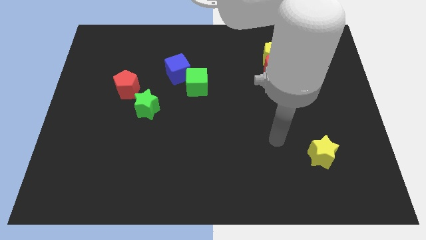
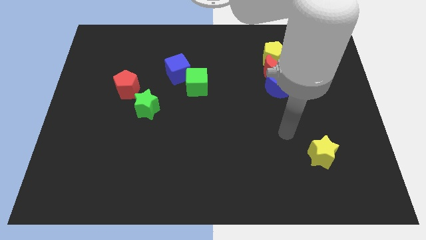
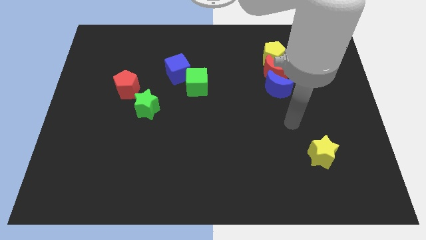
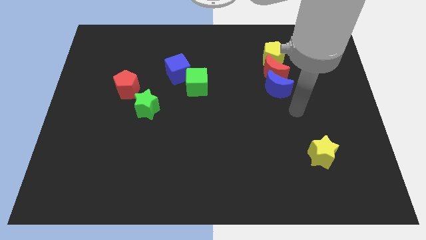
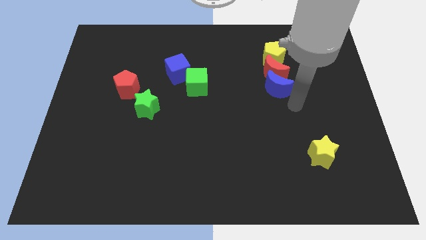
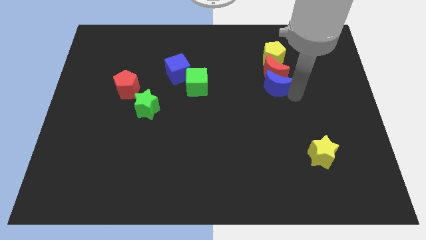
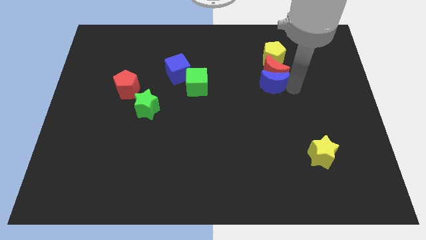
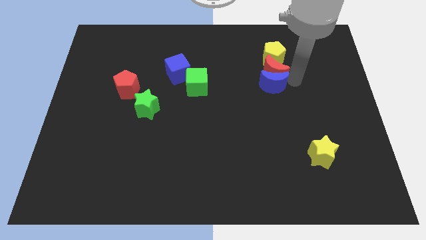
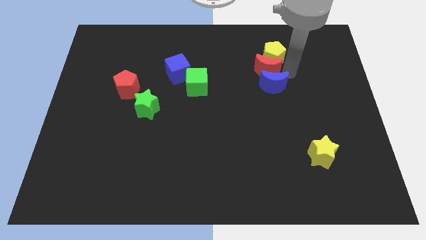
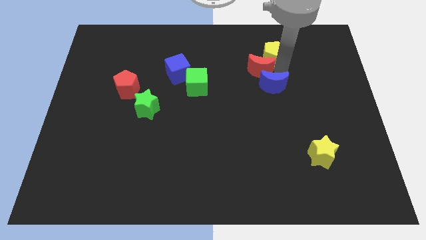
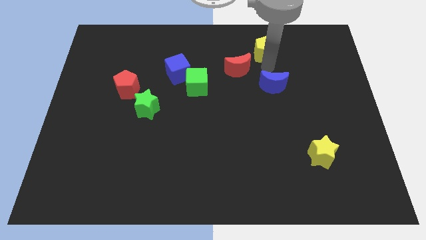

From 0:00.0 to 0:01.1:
pull the blue moon apart from the red moon

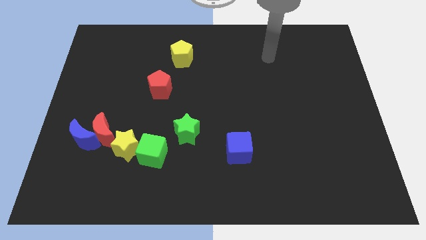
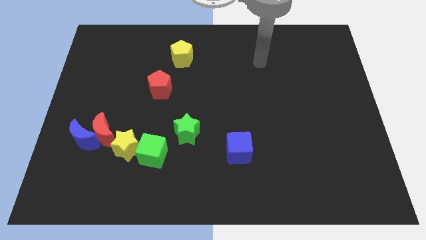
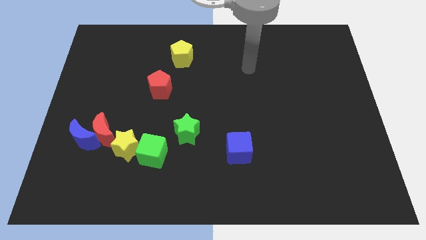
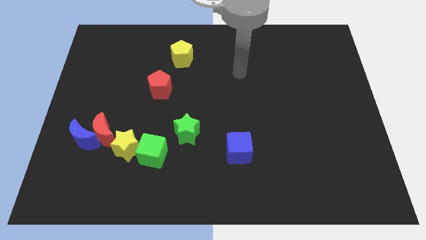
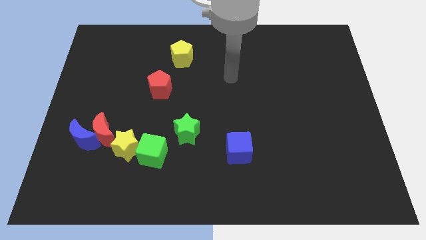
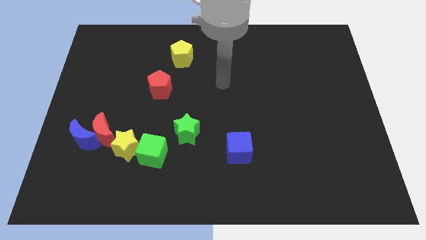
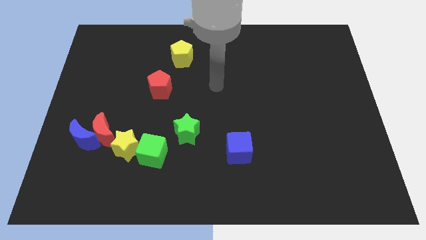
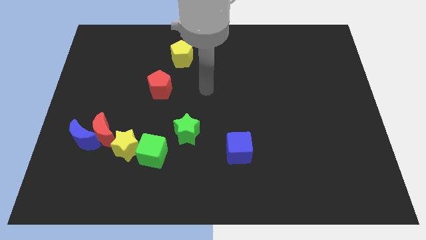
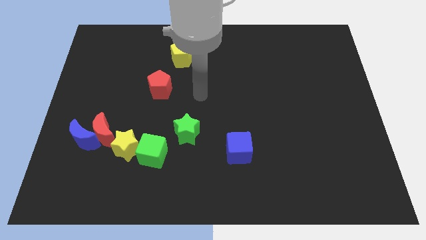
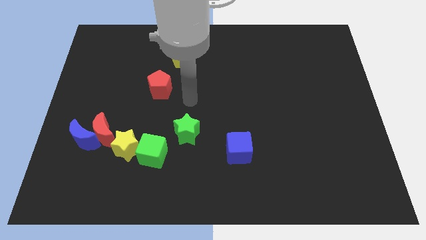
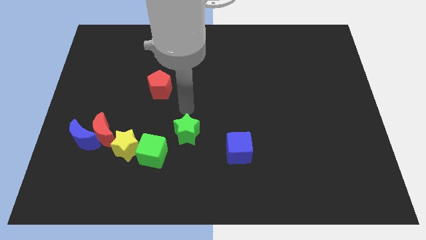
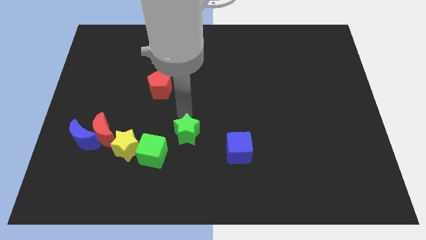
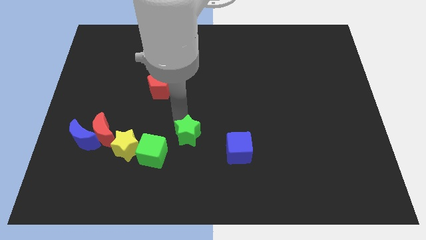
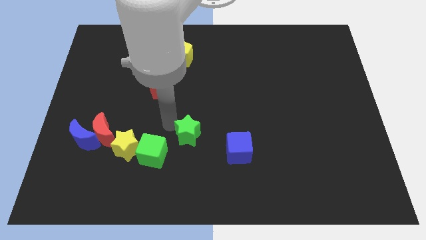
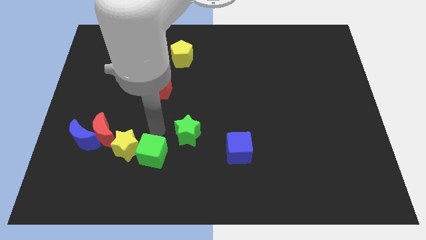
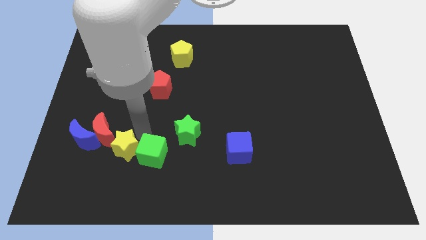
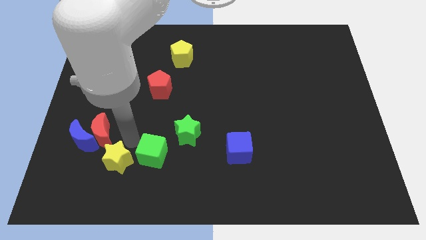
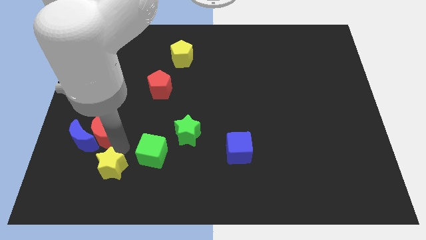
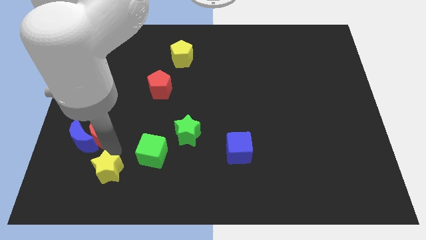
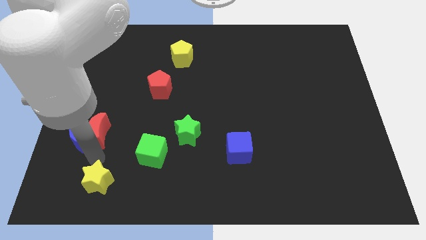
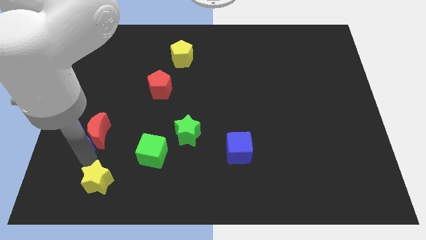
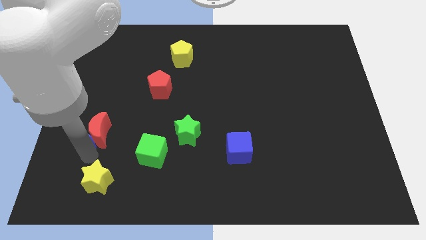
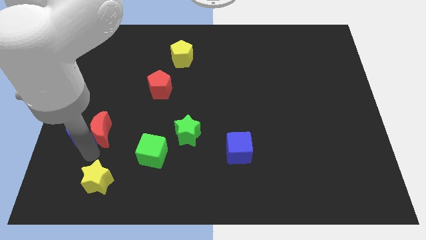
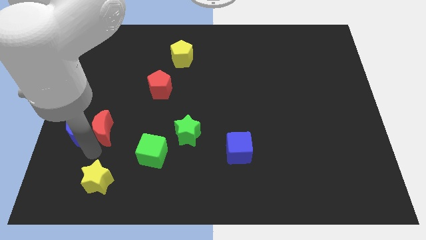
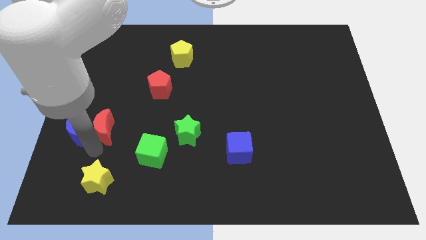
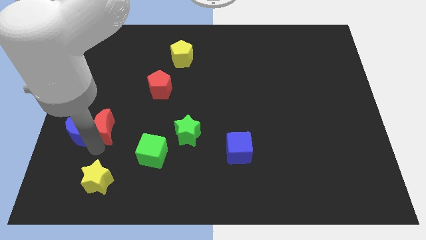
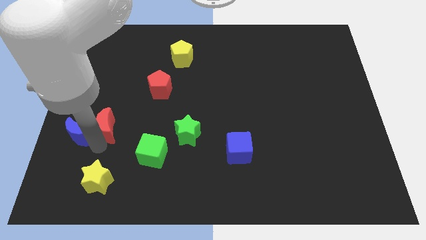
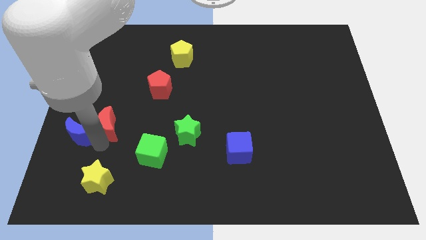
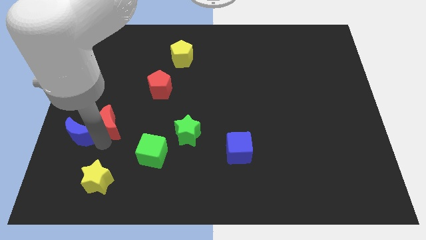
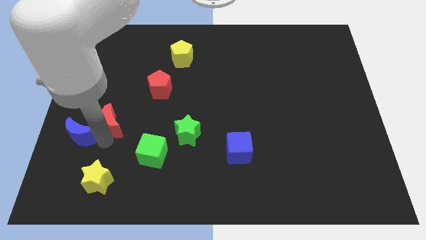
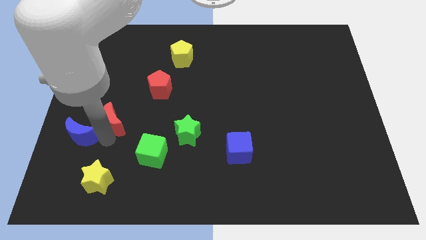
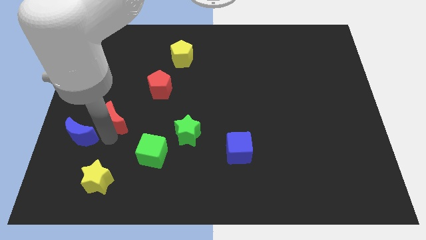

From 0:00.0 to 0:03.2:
pull the red moon apart from the blue moon and yellow star

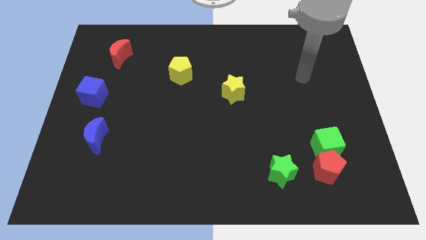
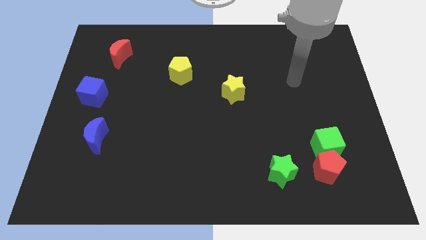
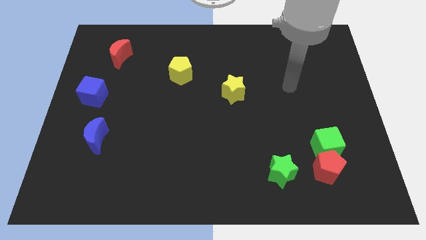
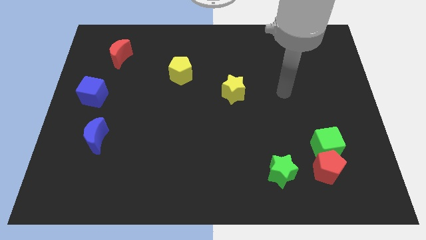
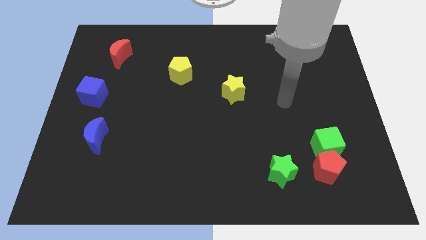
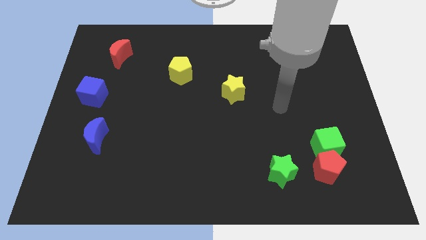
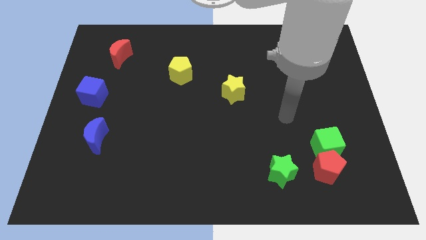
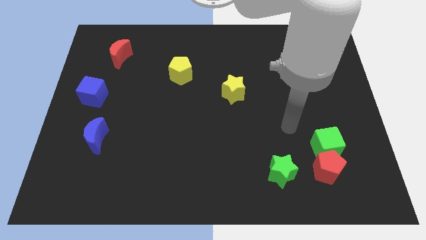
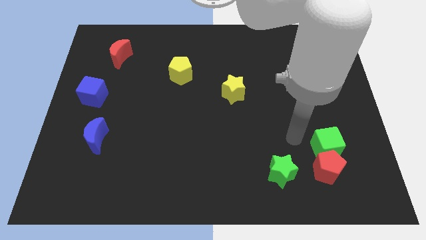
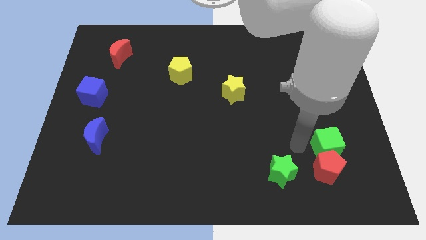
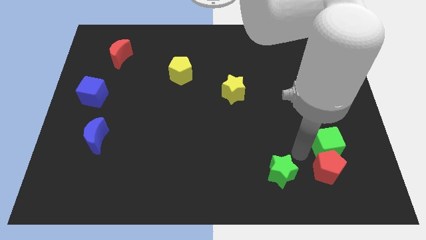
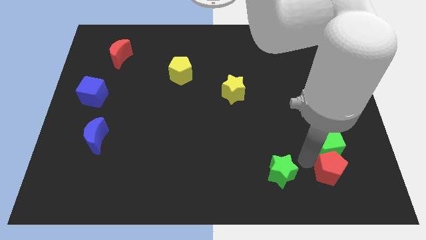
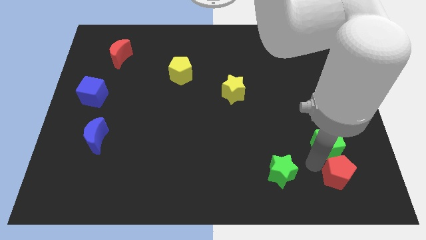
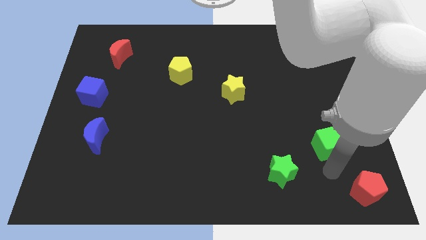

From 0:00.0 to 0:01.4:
pull the green cube apart from the red pentagon

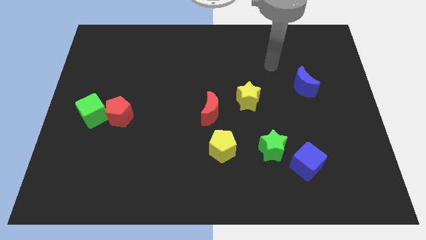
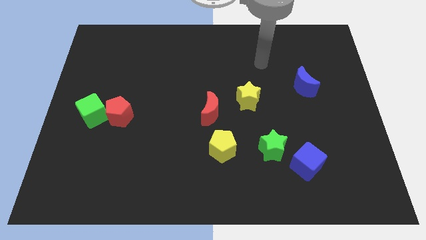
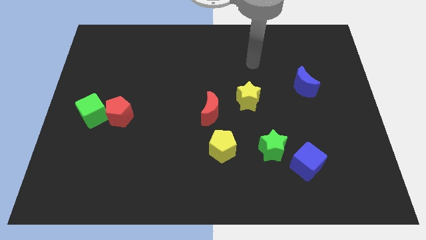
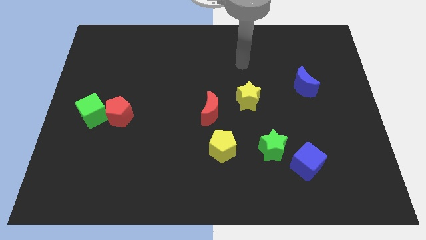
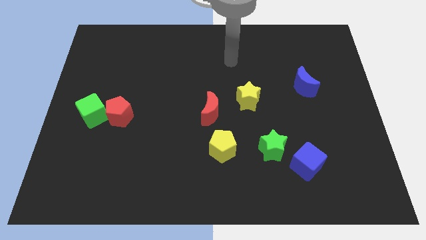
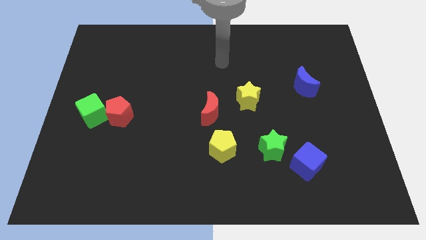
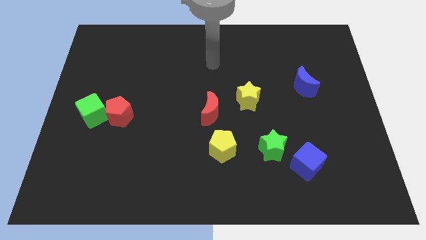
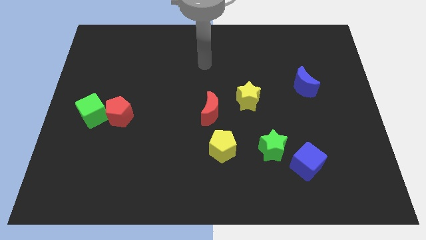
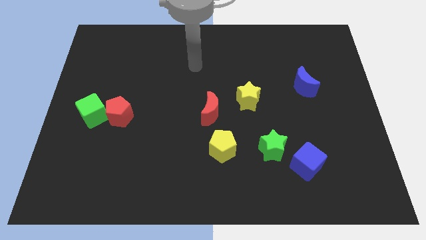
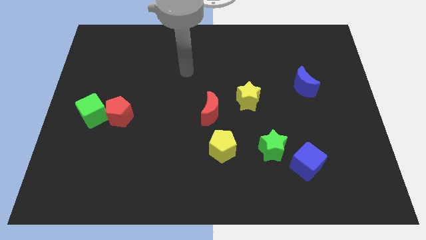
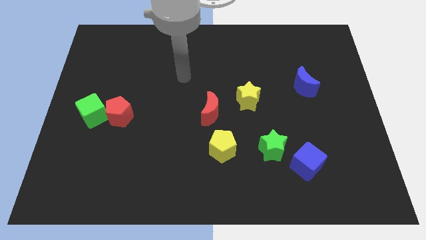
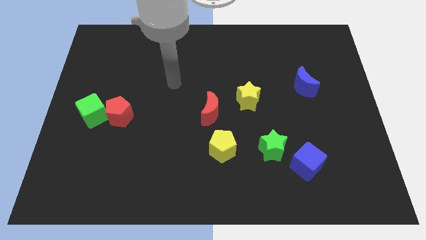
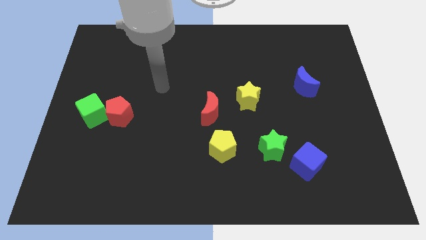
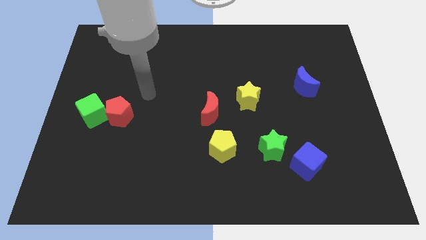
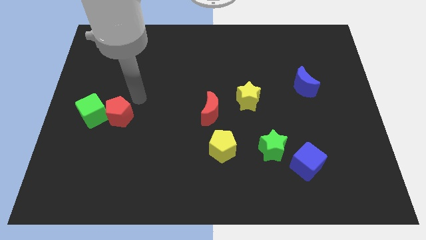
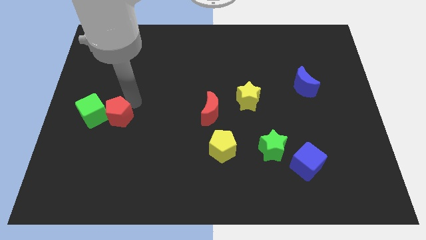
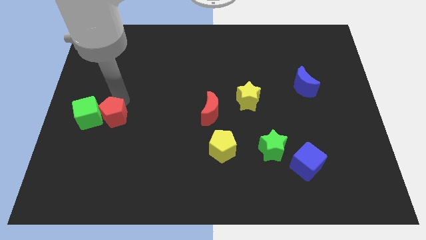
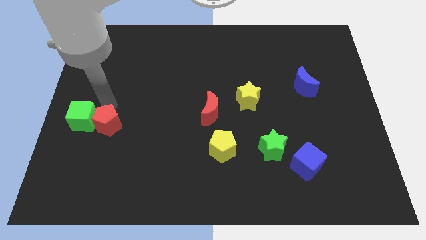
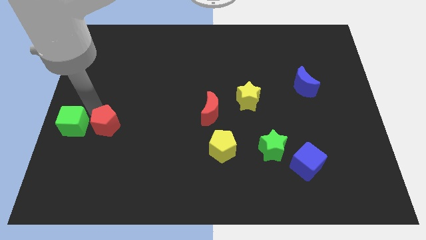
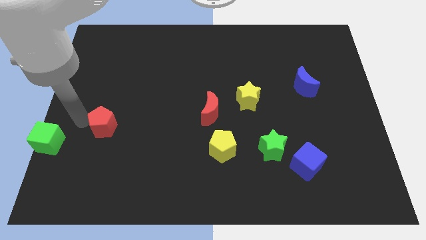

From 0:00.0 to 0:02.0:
separate the red pentagon from the green cube

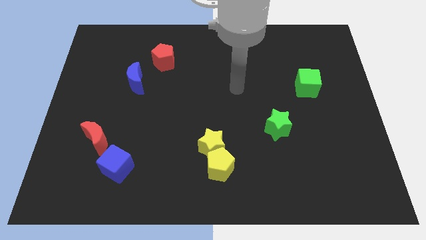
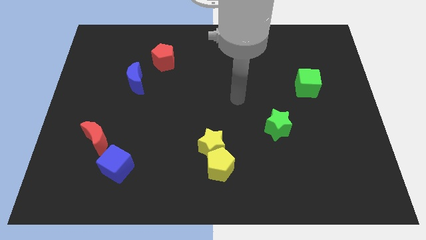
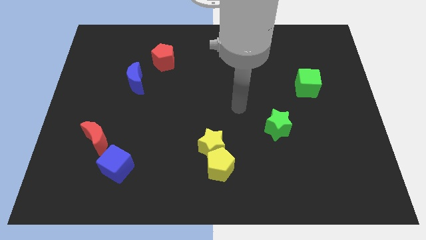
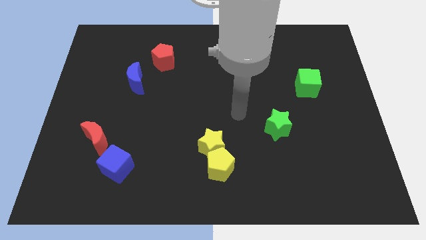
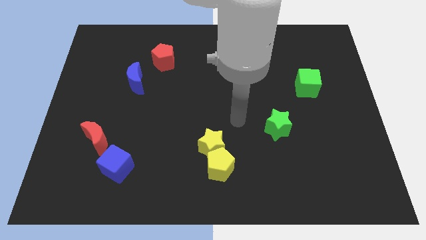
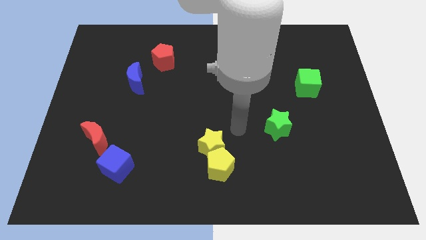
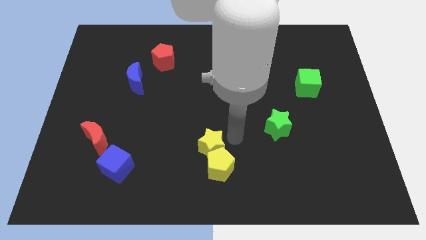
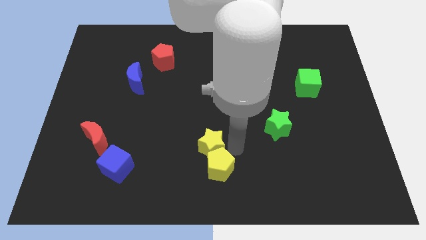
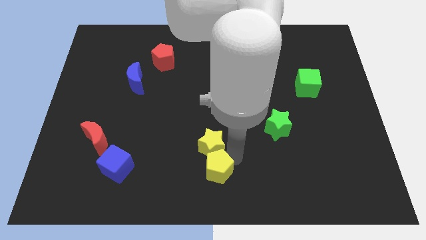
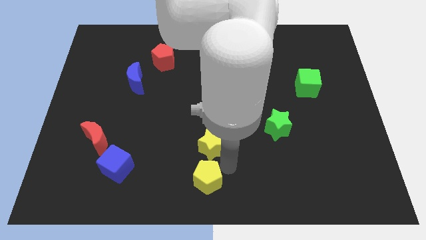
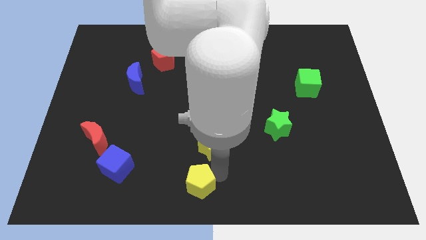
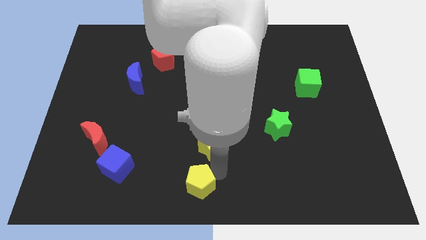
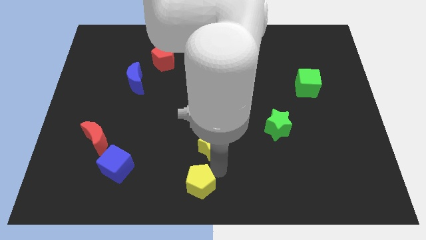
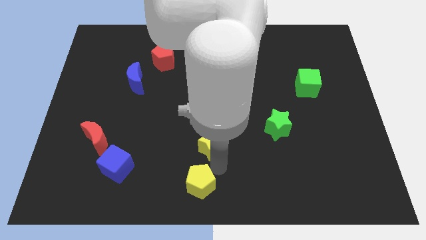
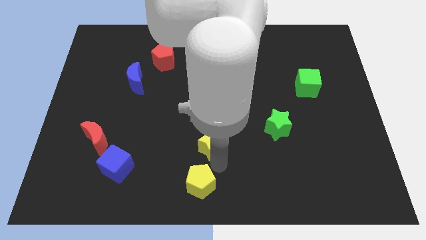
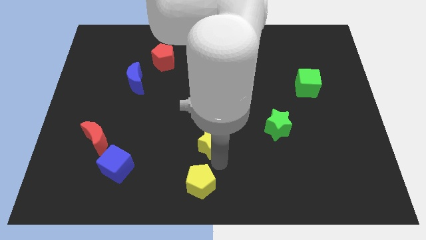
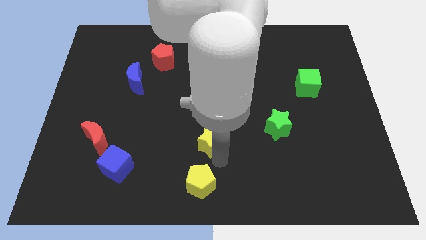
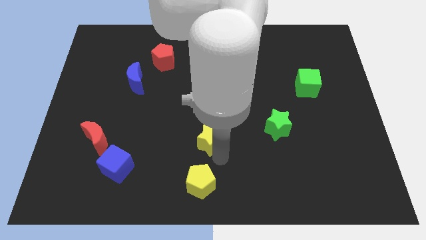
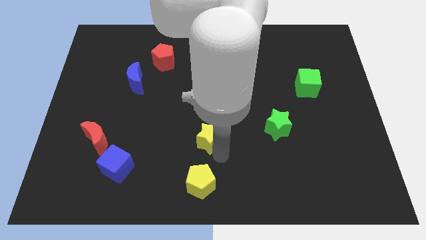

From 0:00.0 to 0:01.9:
pull the yellow star apart from the yellow pentagon
